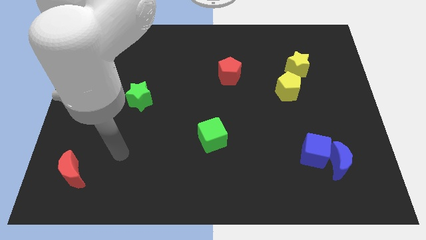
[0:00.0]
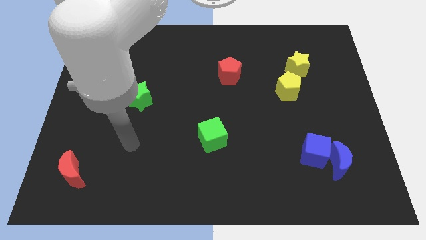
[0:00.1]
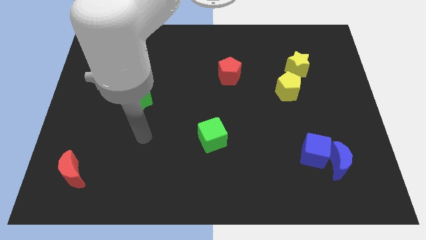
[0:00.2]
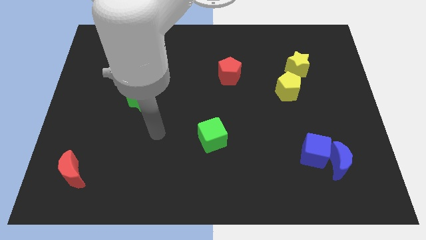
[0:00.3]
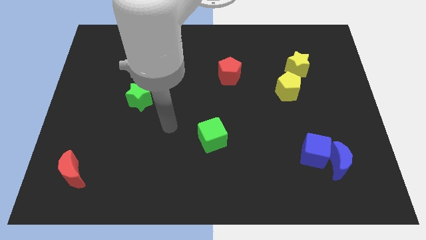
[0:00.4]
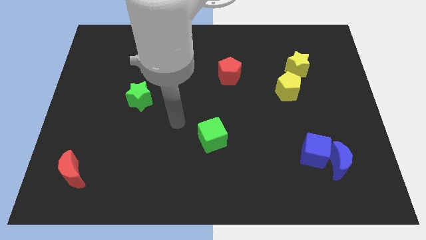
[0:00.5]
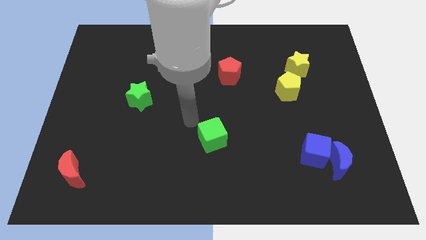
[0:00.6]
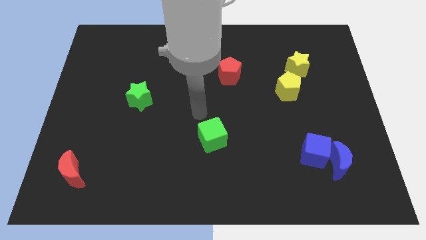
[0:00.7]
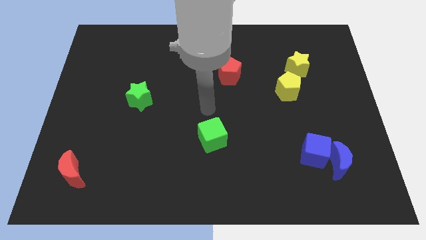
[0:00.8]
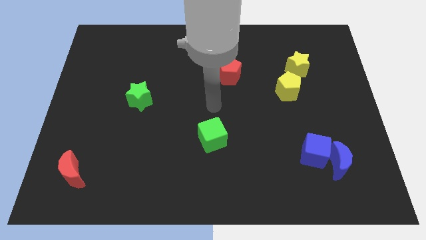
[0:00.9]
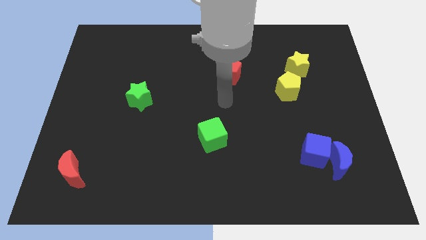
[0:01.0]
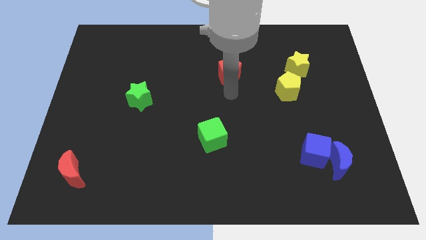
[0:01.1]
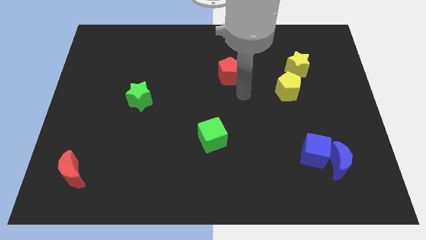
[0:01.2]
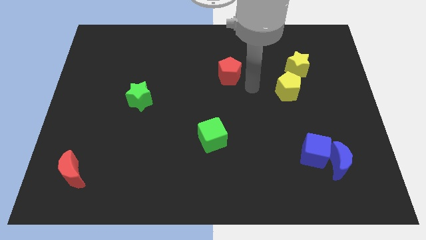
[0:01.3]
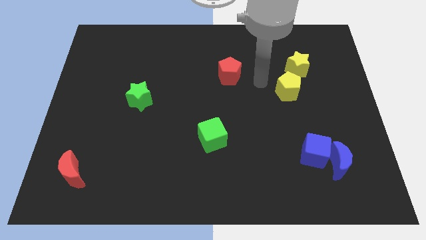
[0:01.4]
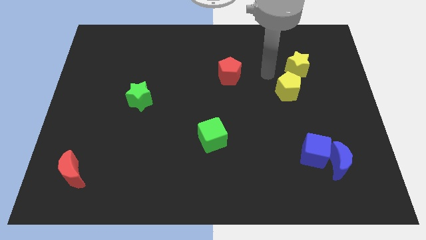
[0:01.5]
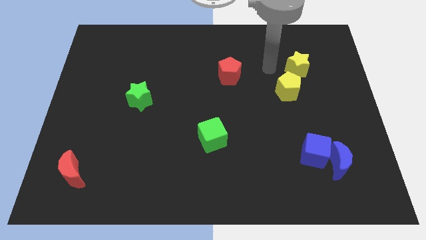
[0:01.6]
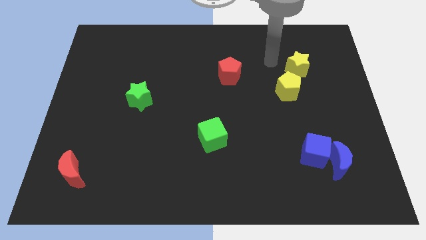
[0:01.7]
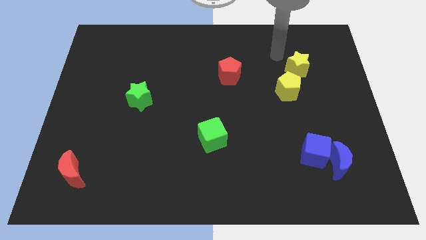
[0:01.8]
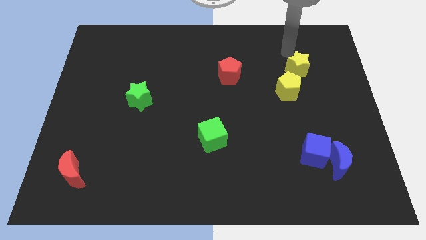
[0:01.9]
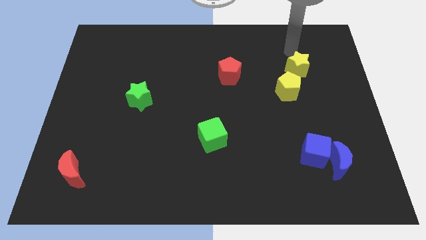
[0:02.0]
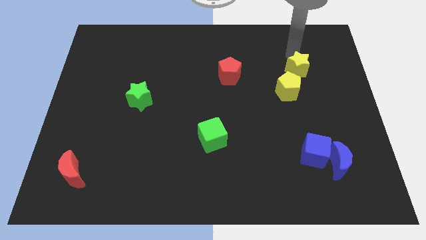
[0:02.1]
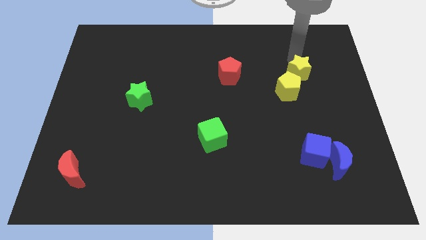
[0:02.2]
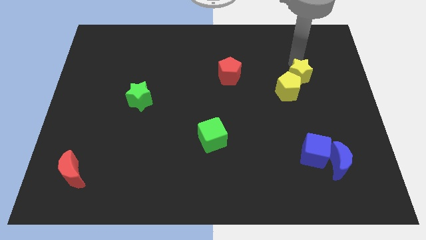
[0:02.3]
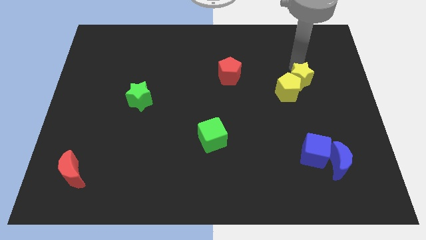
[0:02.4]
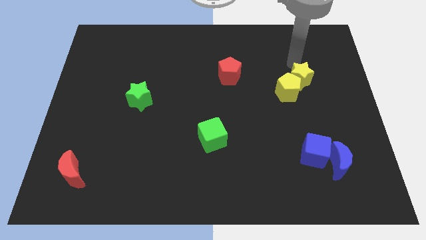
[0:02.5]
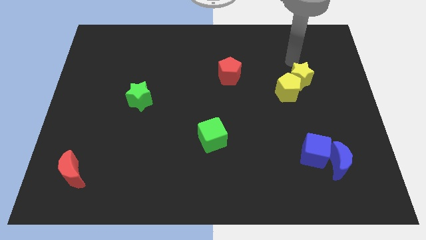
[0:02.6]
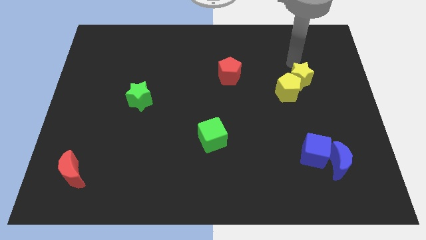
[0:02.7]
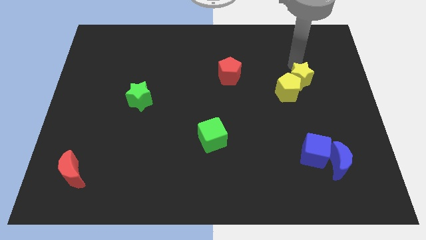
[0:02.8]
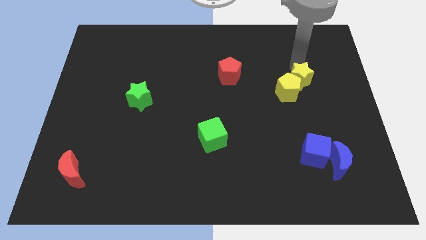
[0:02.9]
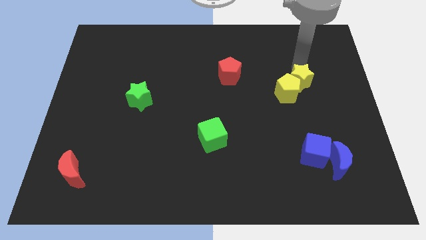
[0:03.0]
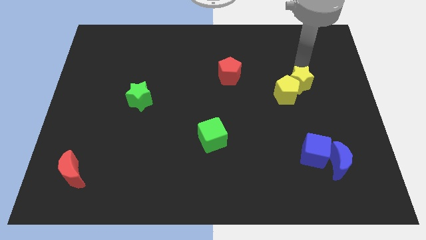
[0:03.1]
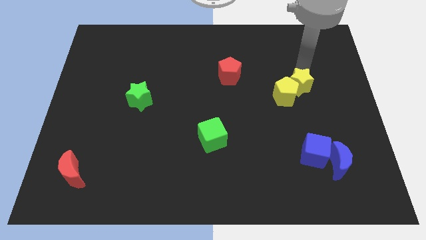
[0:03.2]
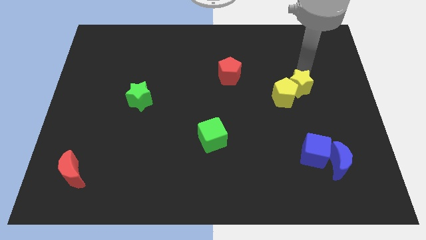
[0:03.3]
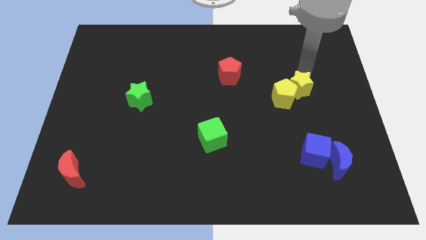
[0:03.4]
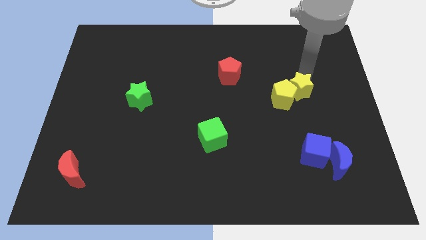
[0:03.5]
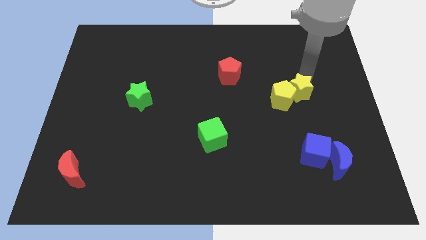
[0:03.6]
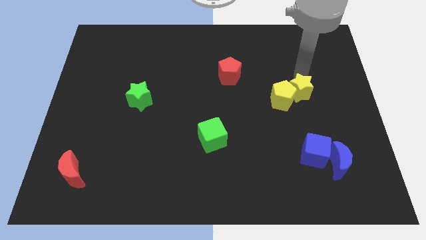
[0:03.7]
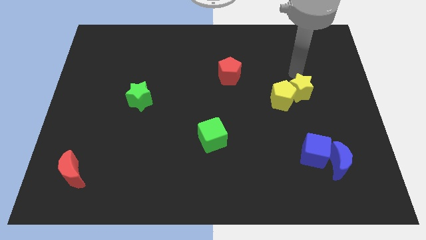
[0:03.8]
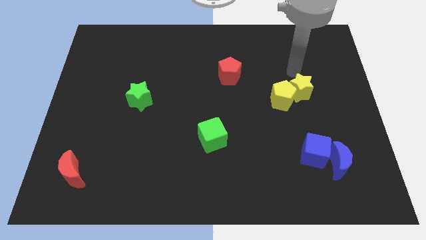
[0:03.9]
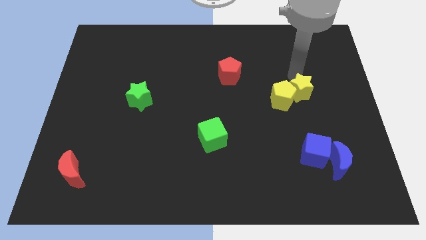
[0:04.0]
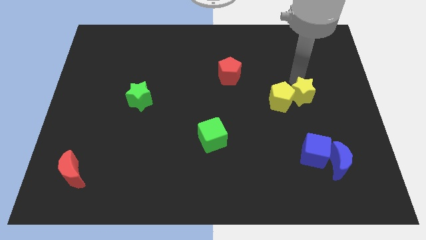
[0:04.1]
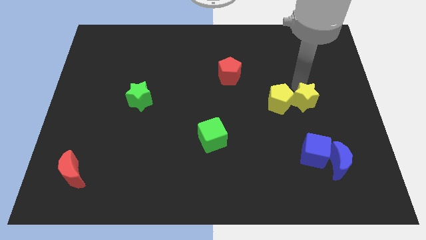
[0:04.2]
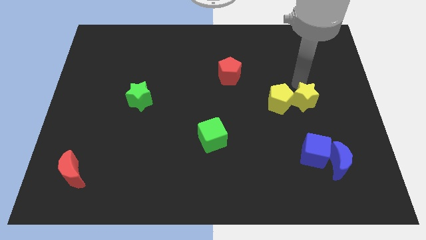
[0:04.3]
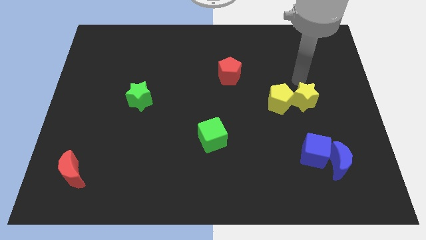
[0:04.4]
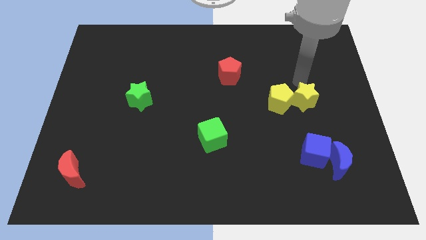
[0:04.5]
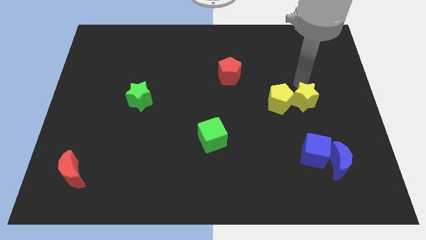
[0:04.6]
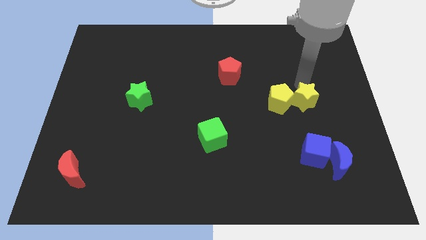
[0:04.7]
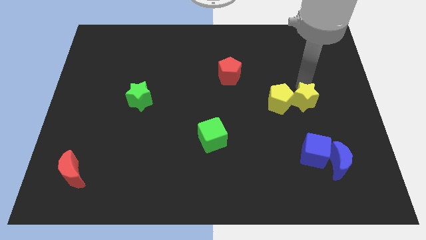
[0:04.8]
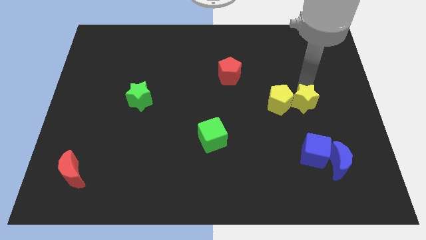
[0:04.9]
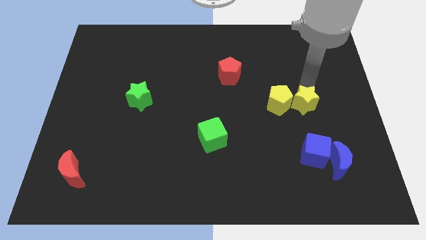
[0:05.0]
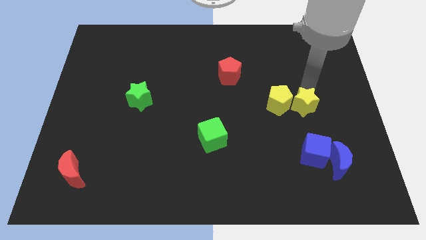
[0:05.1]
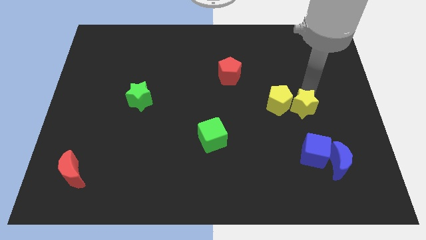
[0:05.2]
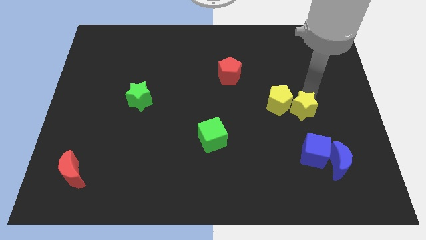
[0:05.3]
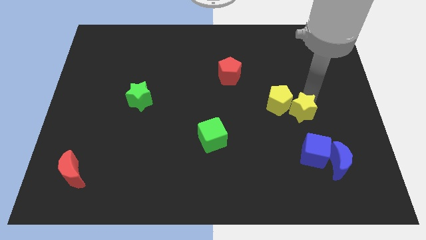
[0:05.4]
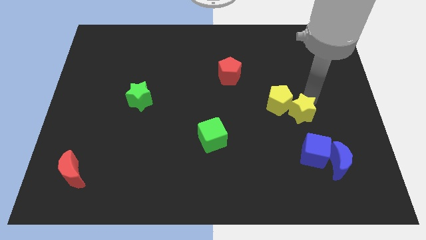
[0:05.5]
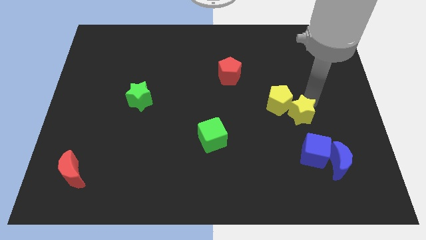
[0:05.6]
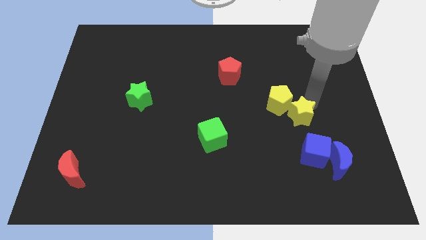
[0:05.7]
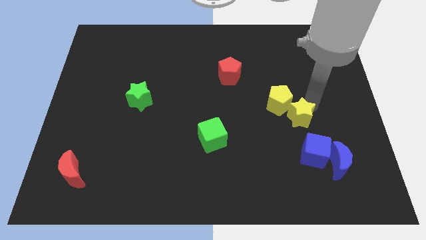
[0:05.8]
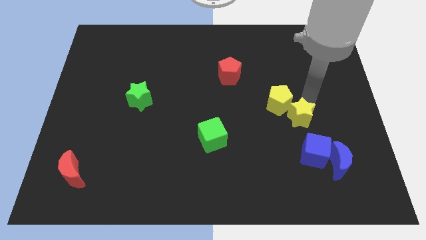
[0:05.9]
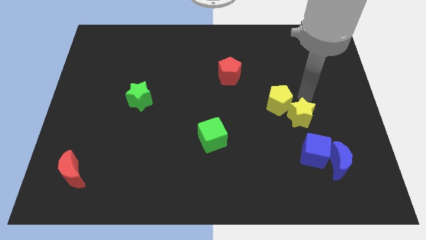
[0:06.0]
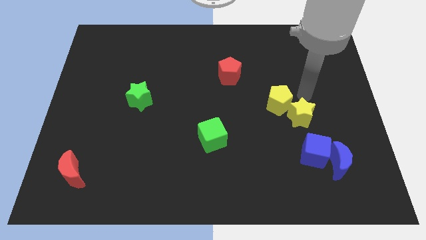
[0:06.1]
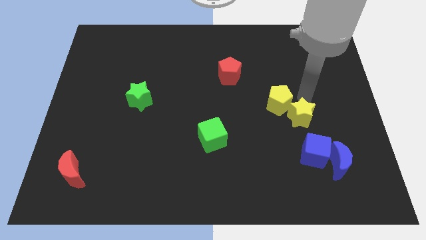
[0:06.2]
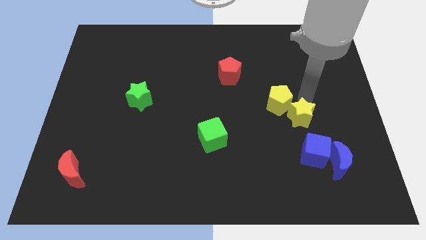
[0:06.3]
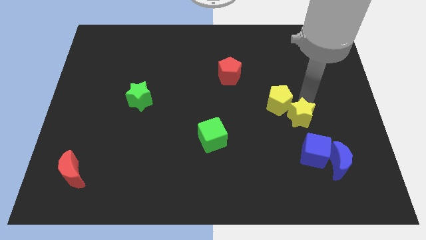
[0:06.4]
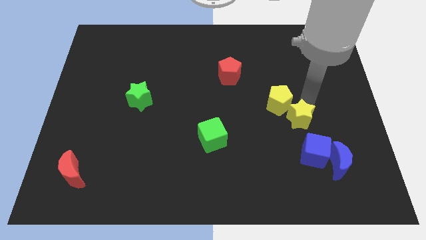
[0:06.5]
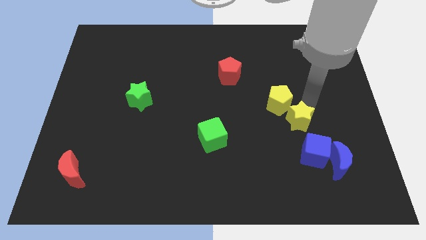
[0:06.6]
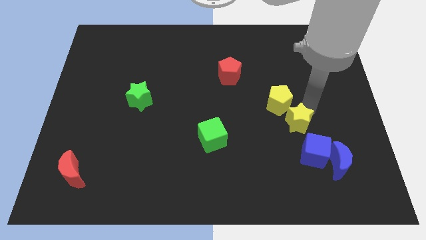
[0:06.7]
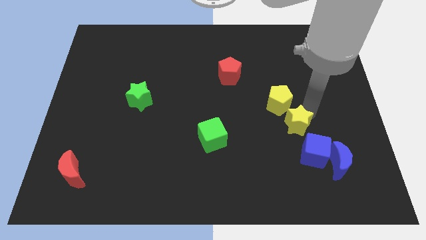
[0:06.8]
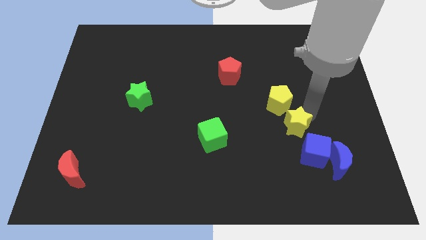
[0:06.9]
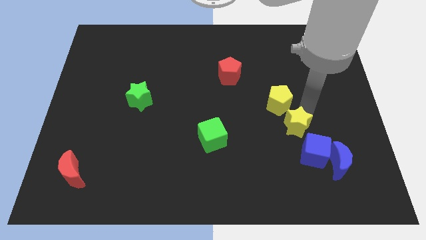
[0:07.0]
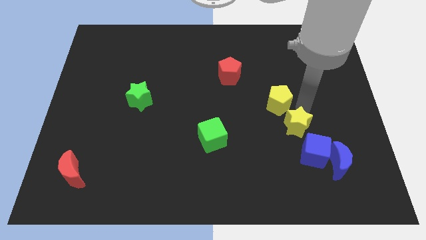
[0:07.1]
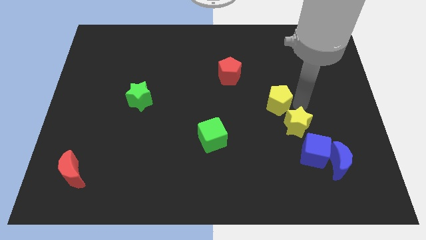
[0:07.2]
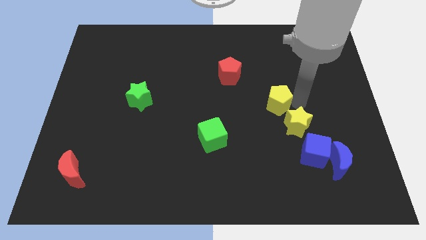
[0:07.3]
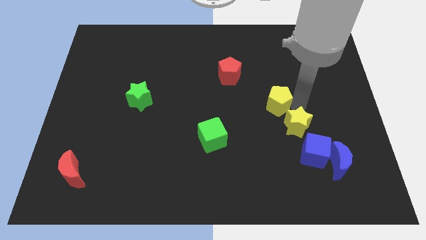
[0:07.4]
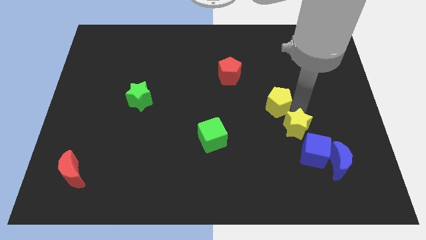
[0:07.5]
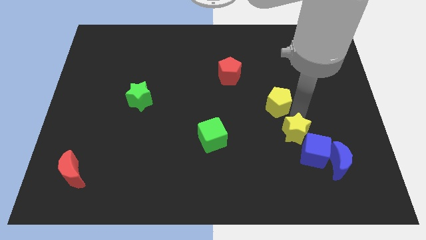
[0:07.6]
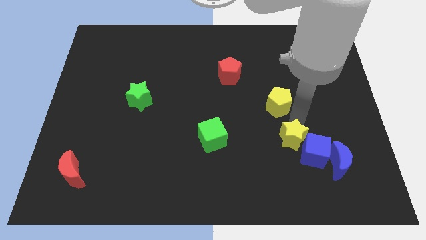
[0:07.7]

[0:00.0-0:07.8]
move the yellow star down
